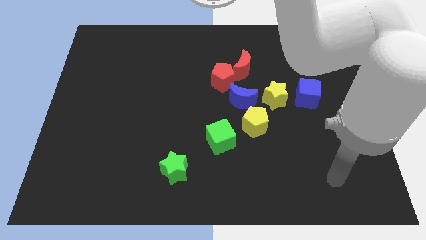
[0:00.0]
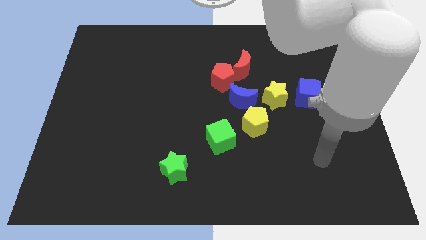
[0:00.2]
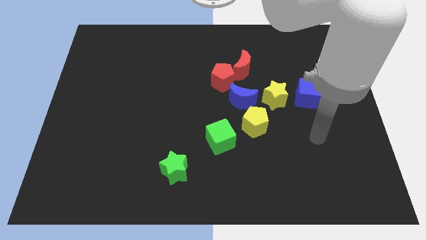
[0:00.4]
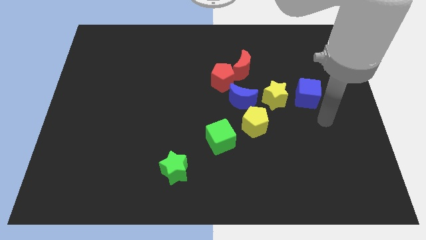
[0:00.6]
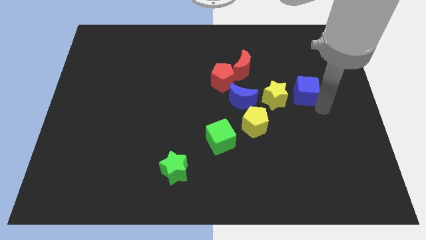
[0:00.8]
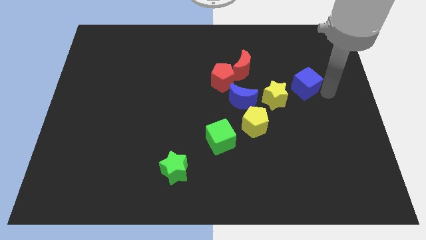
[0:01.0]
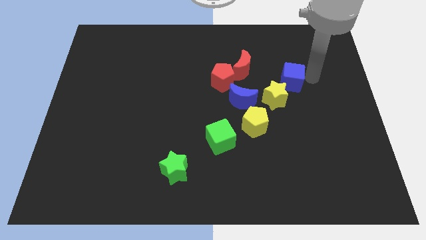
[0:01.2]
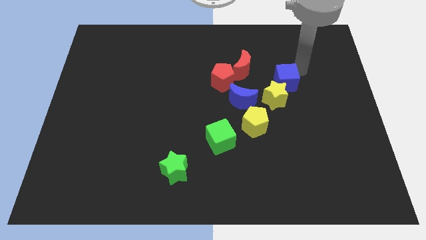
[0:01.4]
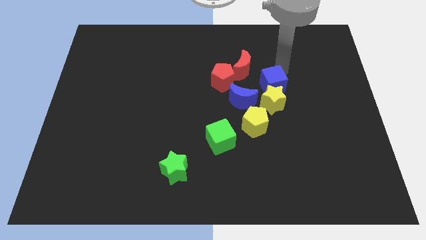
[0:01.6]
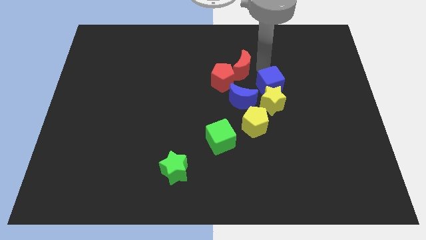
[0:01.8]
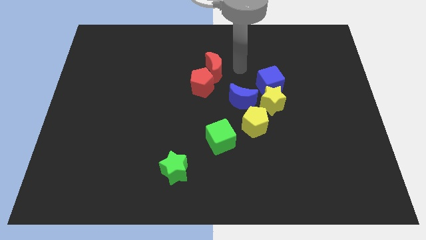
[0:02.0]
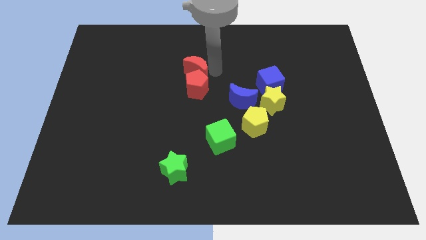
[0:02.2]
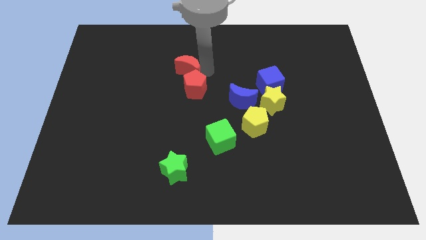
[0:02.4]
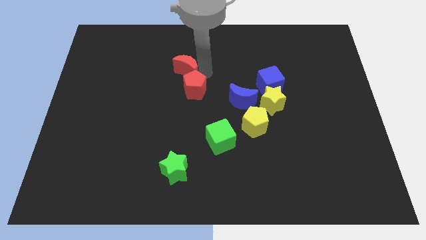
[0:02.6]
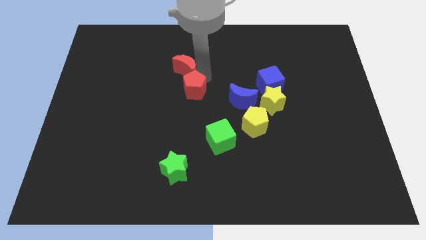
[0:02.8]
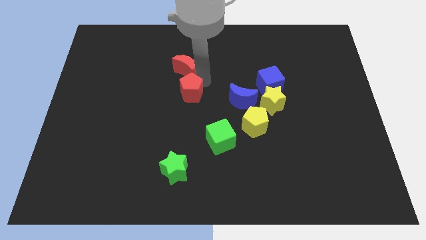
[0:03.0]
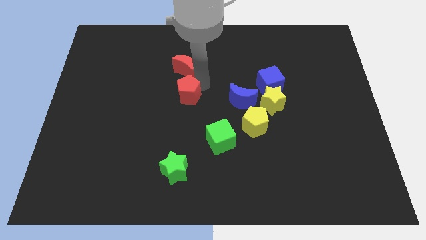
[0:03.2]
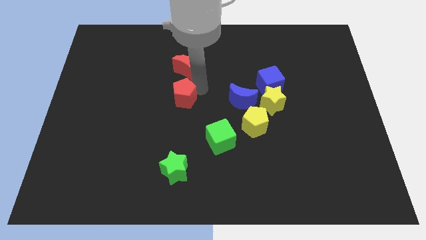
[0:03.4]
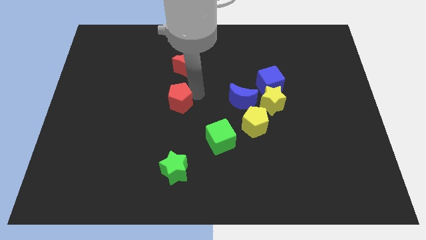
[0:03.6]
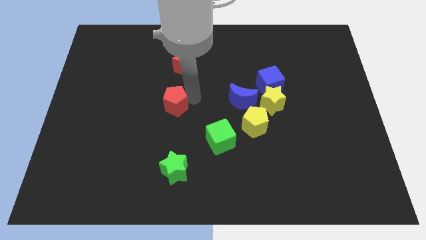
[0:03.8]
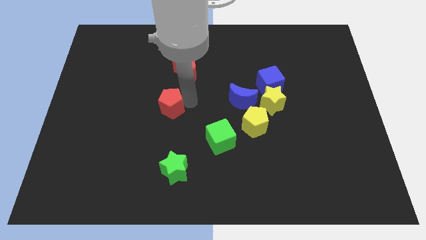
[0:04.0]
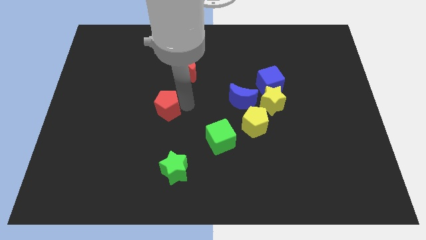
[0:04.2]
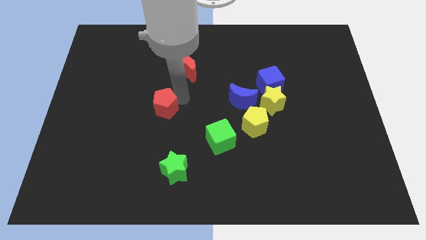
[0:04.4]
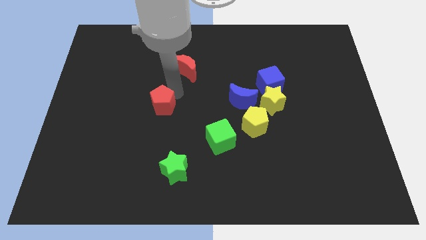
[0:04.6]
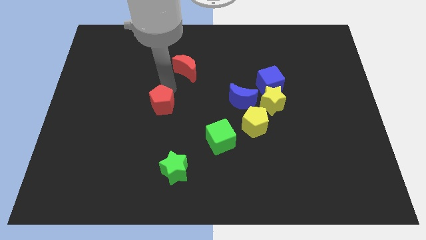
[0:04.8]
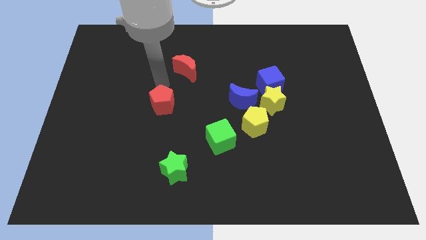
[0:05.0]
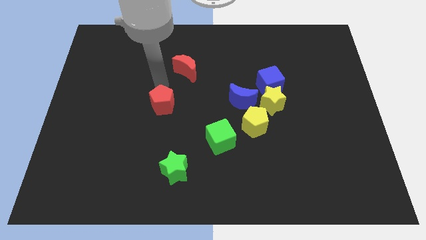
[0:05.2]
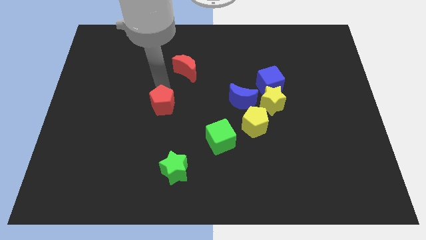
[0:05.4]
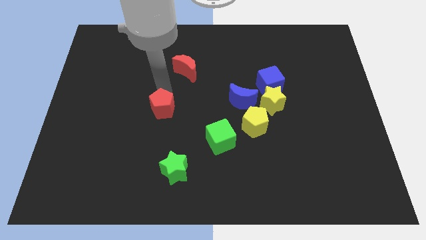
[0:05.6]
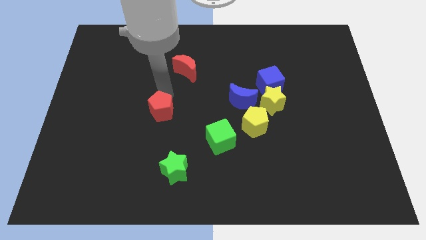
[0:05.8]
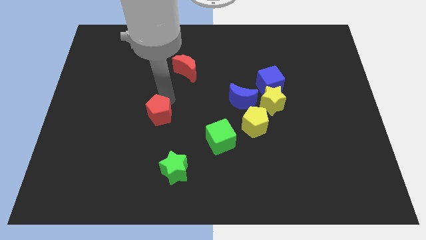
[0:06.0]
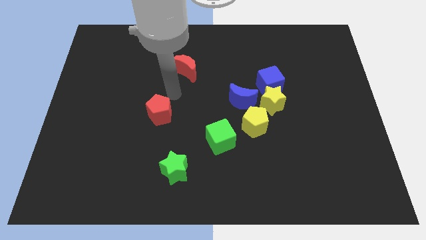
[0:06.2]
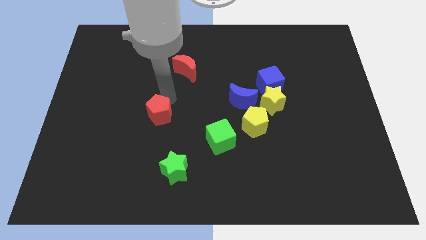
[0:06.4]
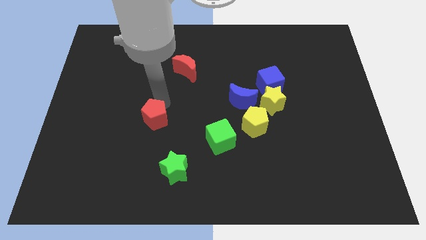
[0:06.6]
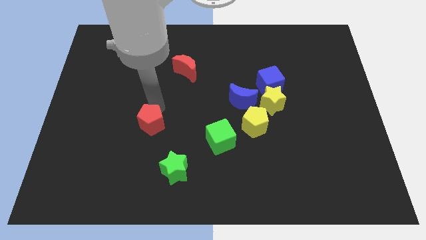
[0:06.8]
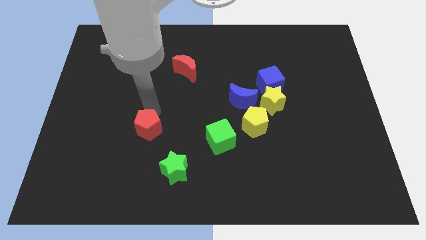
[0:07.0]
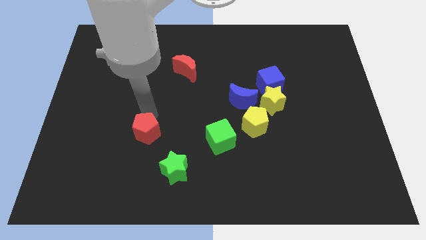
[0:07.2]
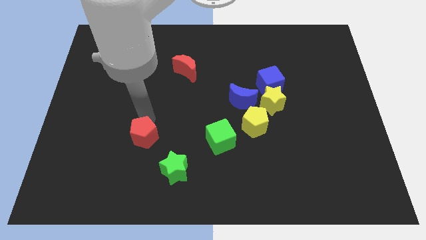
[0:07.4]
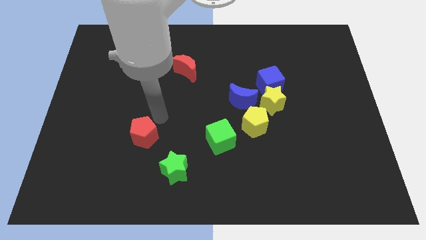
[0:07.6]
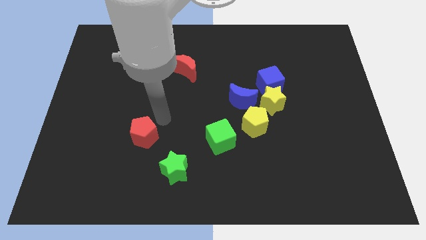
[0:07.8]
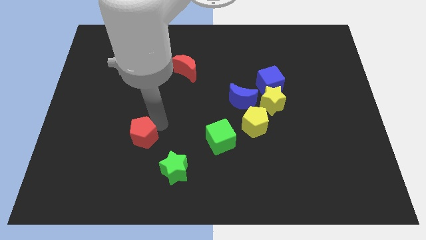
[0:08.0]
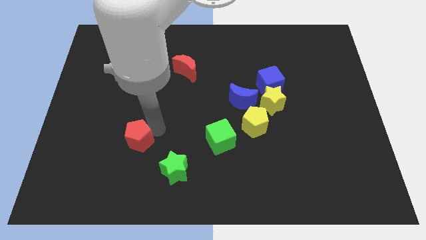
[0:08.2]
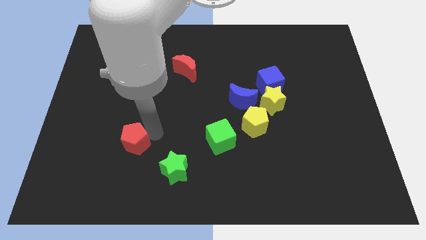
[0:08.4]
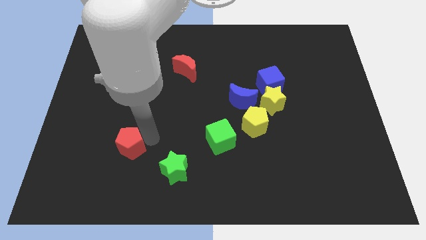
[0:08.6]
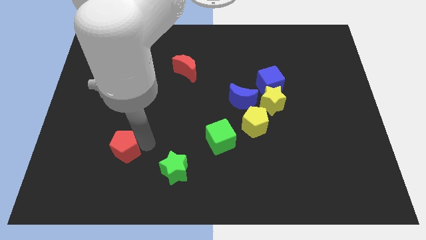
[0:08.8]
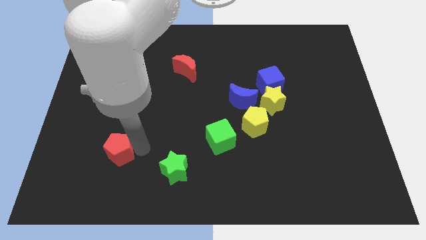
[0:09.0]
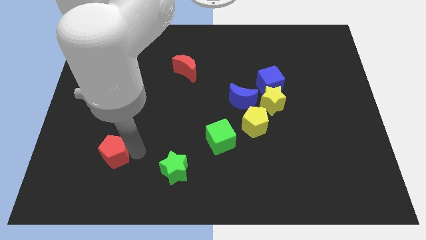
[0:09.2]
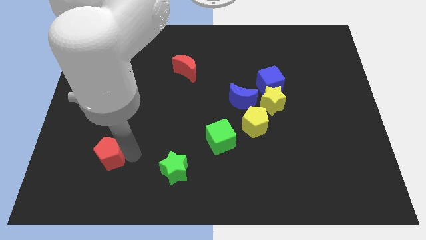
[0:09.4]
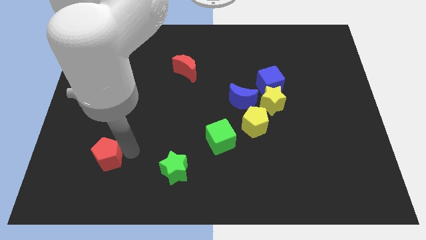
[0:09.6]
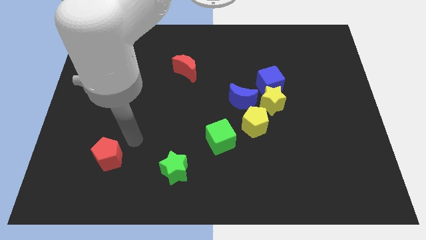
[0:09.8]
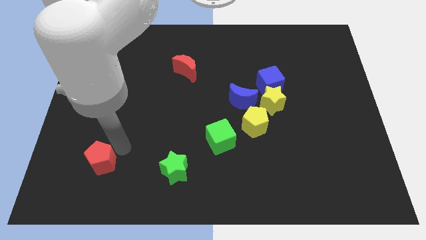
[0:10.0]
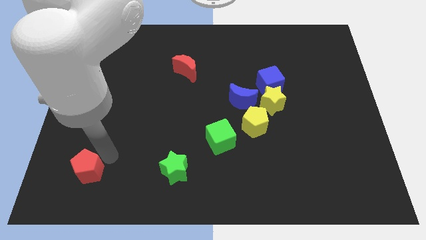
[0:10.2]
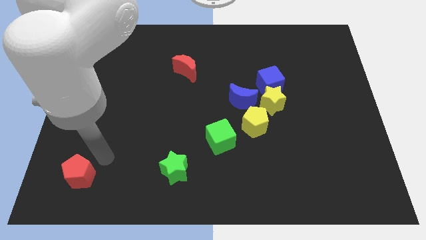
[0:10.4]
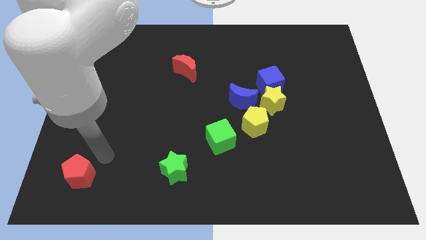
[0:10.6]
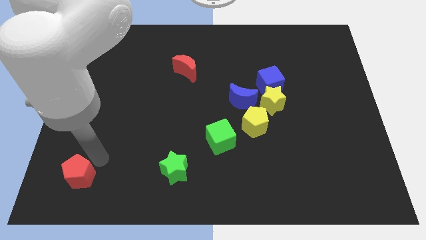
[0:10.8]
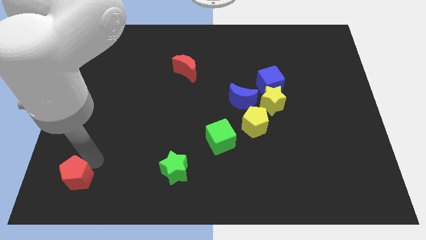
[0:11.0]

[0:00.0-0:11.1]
put the red pentagon to the bottom left
